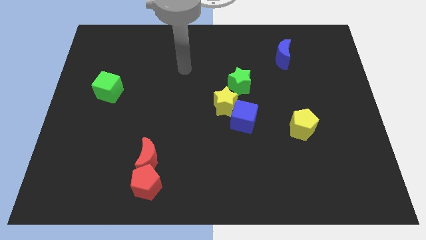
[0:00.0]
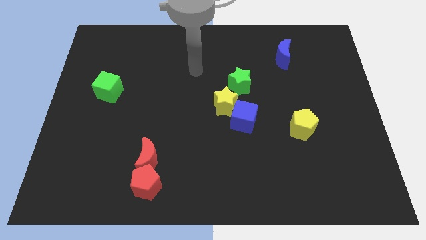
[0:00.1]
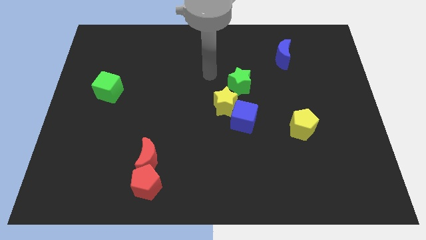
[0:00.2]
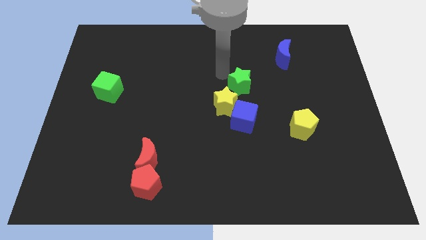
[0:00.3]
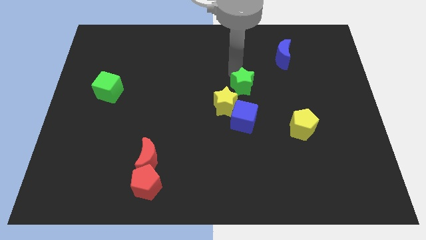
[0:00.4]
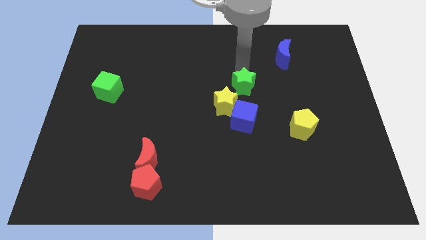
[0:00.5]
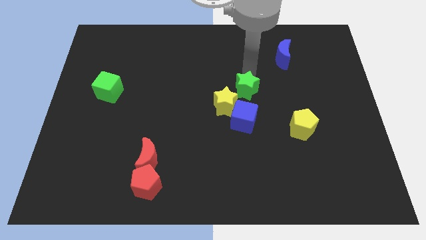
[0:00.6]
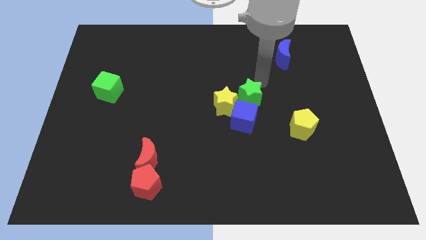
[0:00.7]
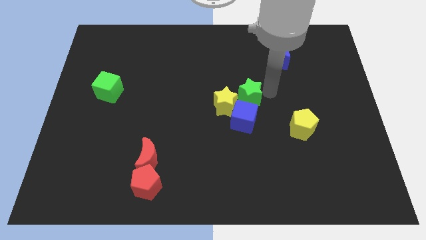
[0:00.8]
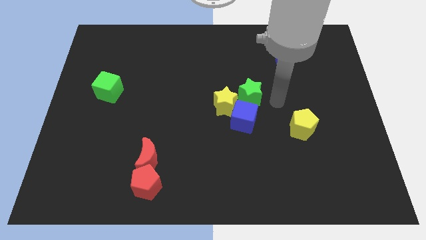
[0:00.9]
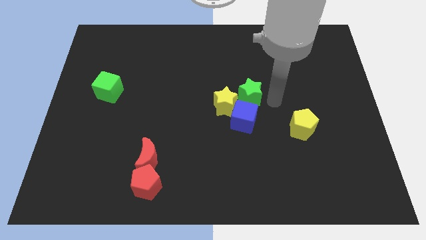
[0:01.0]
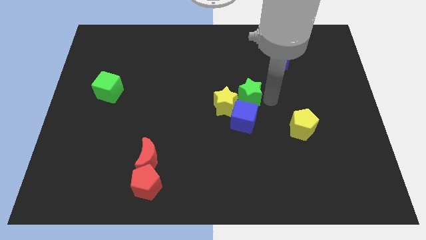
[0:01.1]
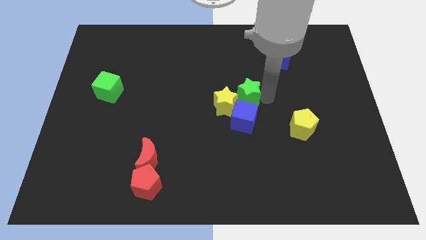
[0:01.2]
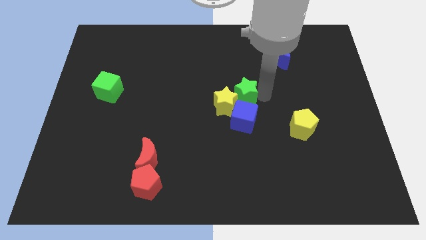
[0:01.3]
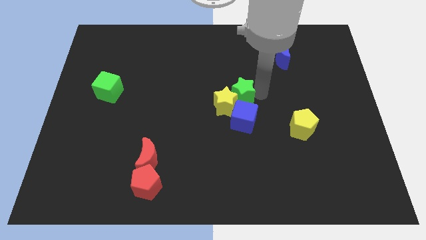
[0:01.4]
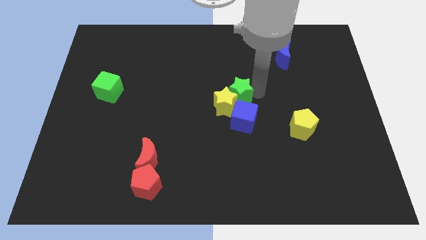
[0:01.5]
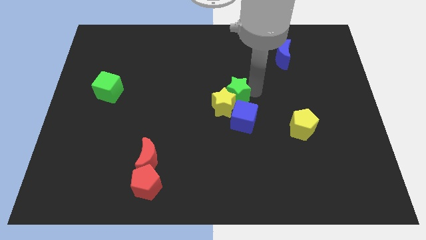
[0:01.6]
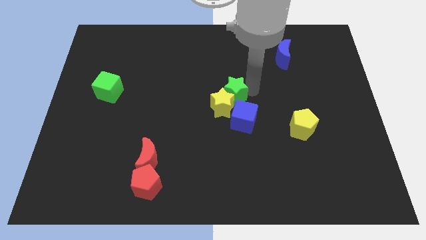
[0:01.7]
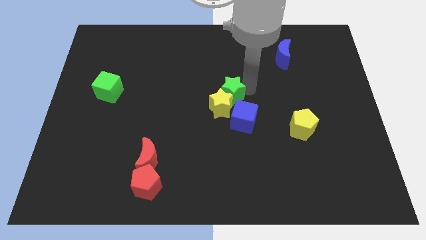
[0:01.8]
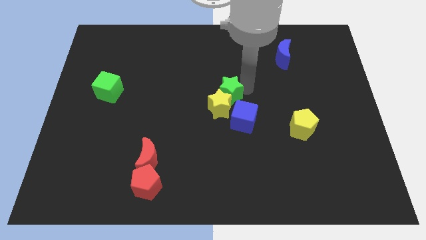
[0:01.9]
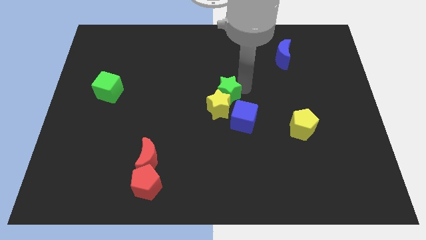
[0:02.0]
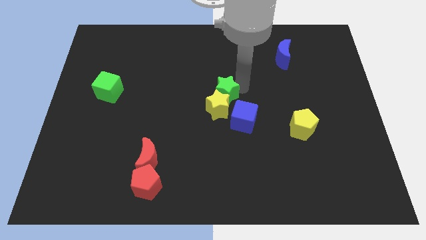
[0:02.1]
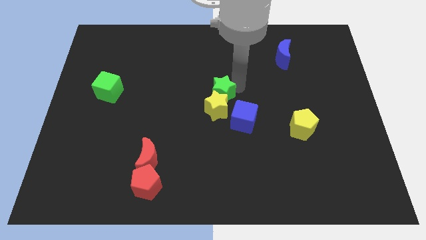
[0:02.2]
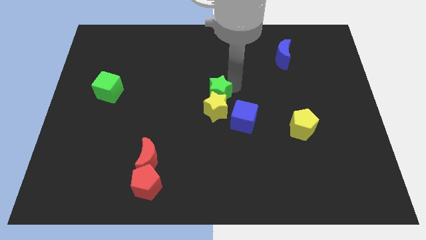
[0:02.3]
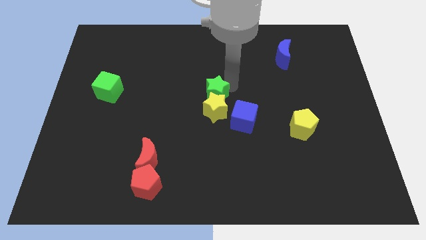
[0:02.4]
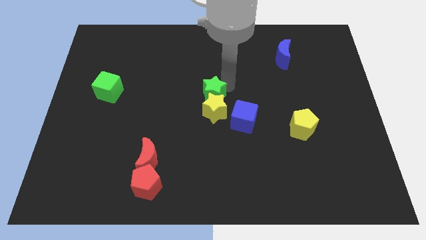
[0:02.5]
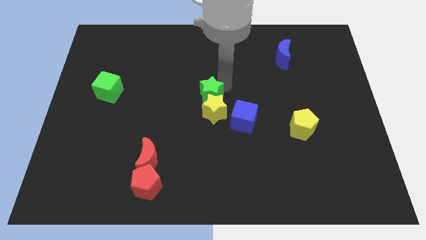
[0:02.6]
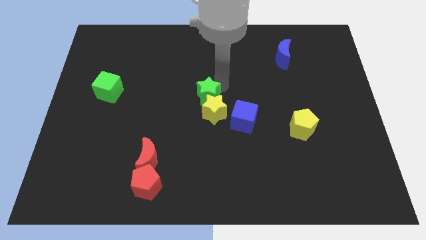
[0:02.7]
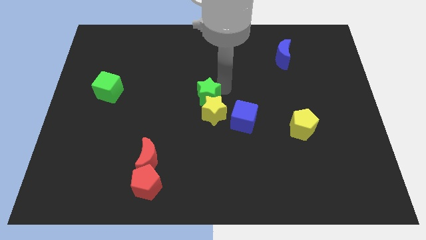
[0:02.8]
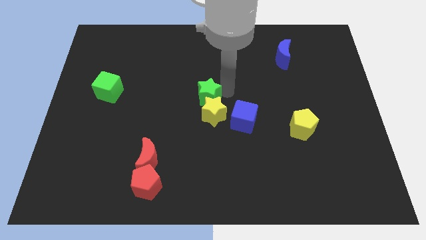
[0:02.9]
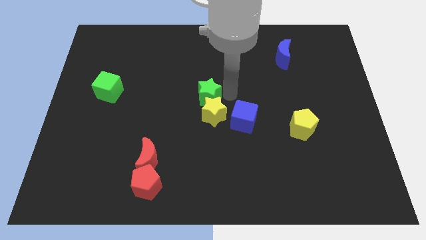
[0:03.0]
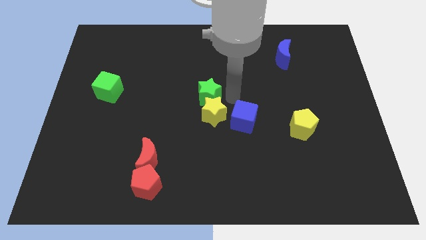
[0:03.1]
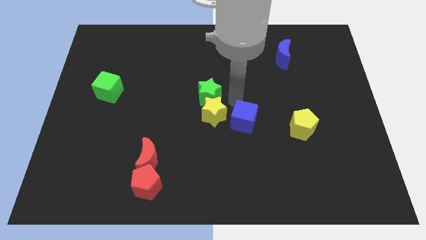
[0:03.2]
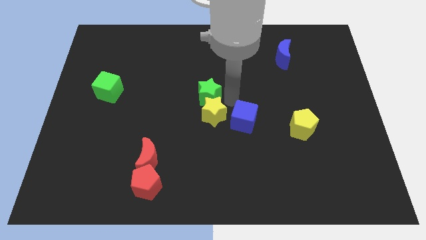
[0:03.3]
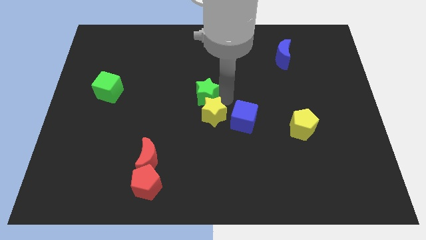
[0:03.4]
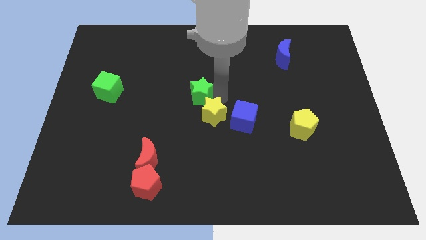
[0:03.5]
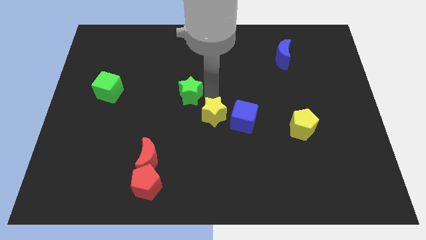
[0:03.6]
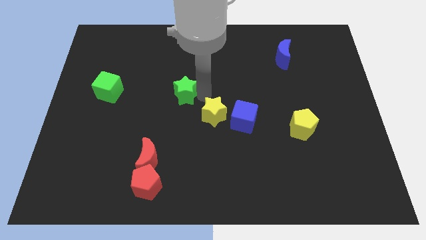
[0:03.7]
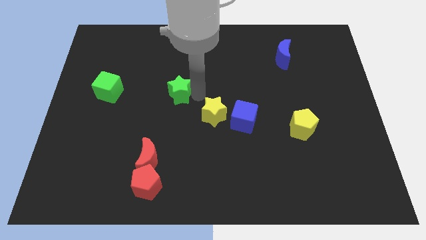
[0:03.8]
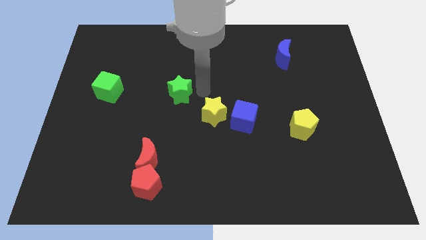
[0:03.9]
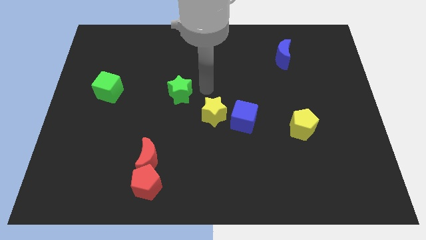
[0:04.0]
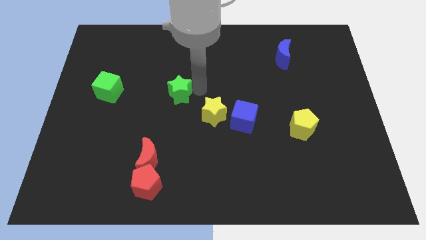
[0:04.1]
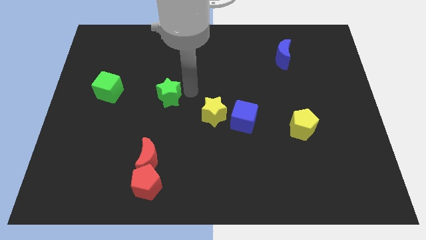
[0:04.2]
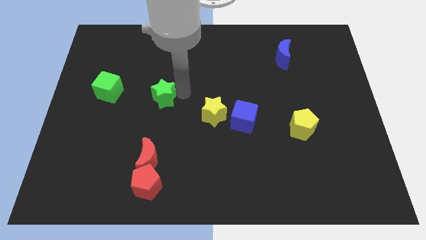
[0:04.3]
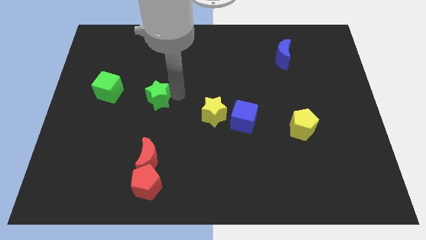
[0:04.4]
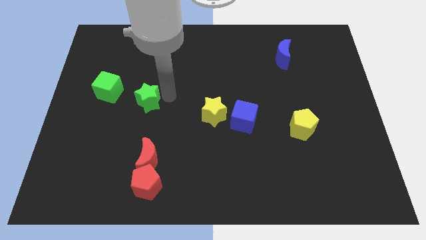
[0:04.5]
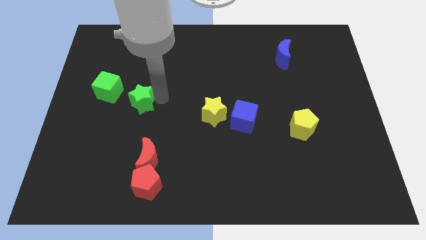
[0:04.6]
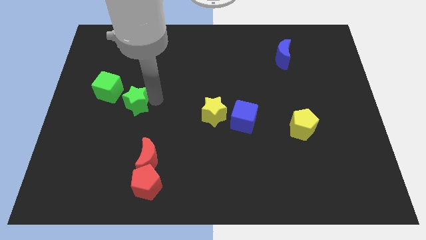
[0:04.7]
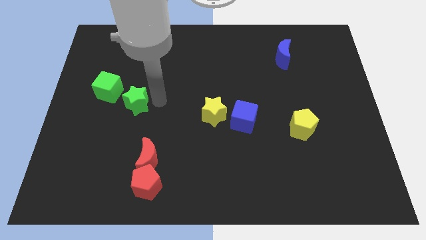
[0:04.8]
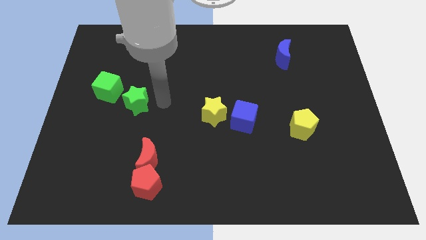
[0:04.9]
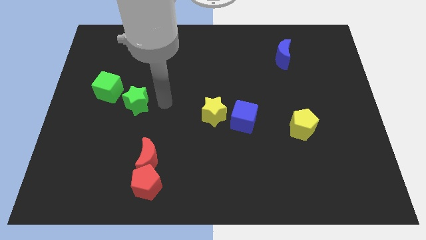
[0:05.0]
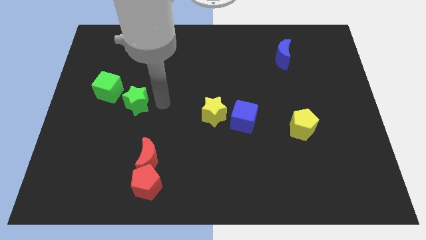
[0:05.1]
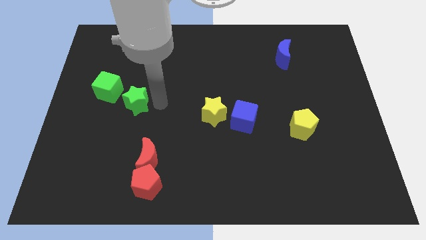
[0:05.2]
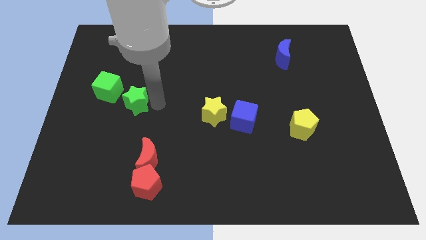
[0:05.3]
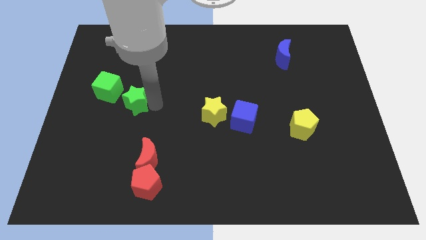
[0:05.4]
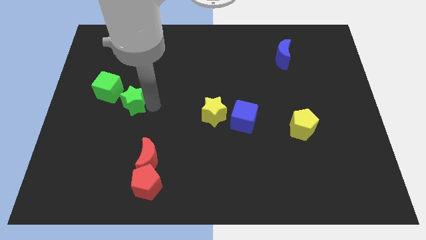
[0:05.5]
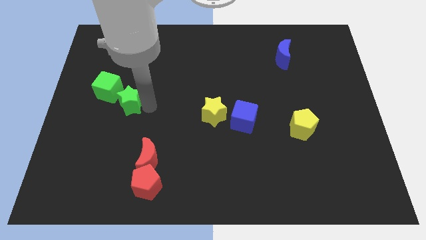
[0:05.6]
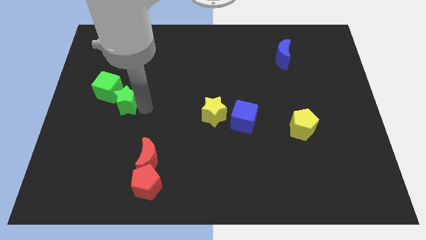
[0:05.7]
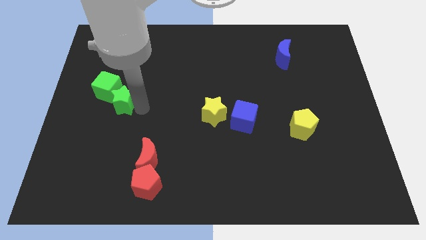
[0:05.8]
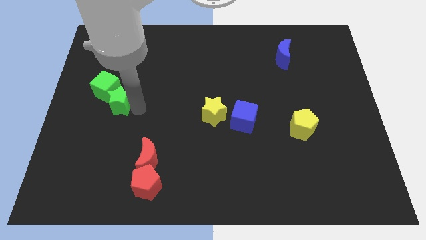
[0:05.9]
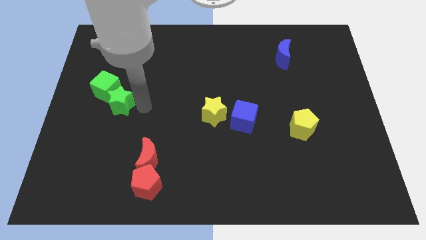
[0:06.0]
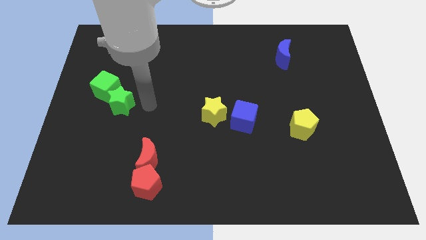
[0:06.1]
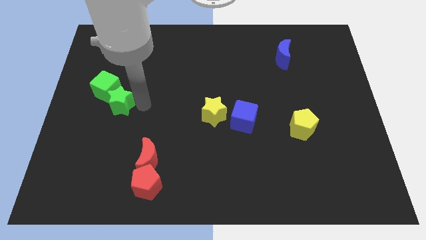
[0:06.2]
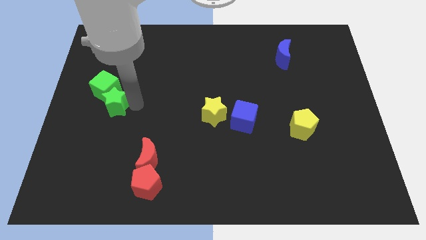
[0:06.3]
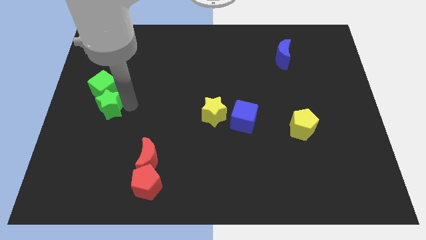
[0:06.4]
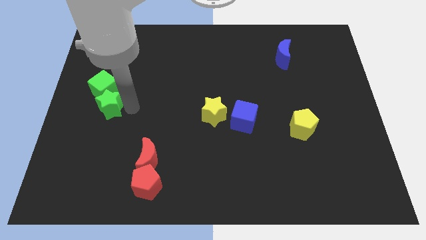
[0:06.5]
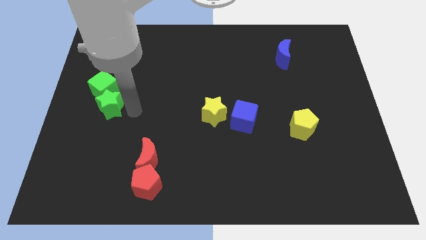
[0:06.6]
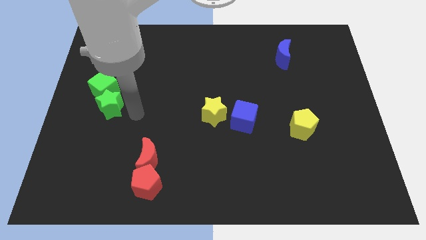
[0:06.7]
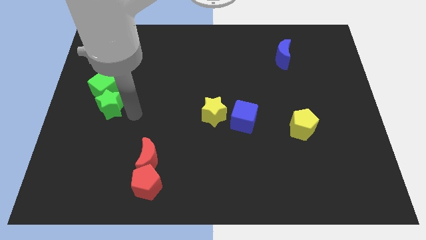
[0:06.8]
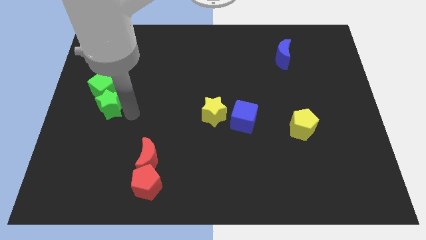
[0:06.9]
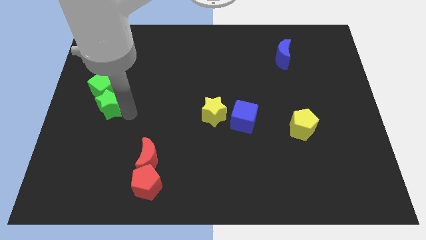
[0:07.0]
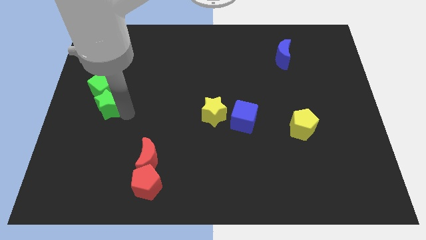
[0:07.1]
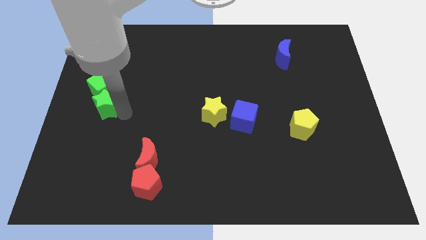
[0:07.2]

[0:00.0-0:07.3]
put the green star to the center left
